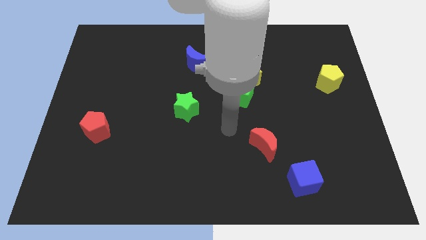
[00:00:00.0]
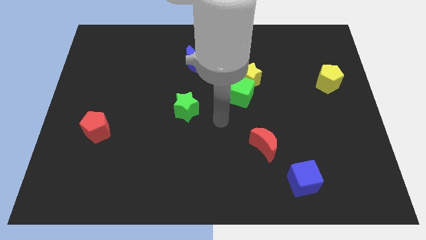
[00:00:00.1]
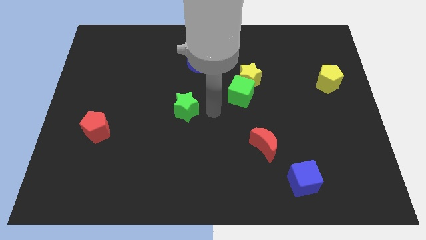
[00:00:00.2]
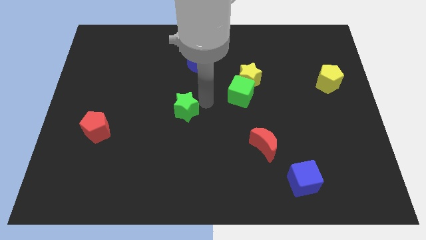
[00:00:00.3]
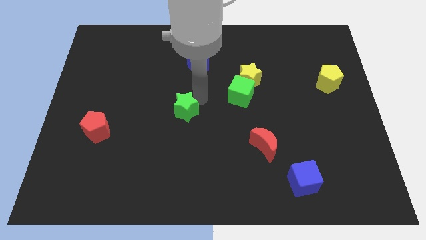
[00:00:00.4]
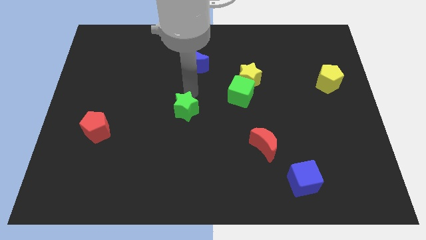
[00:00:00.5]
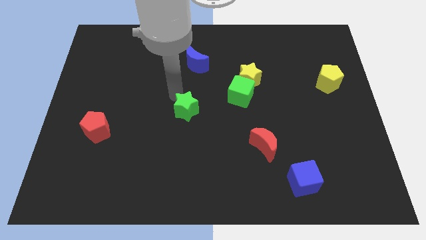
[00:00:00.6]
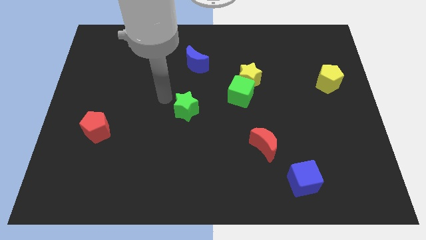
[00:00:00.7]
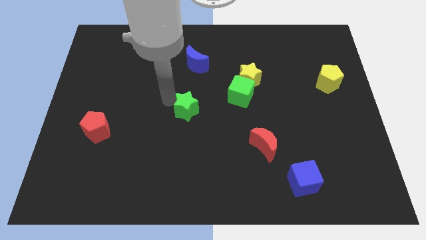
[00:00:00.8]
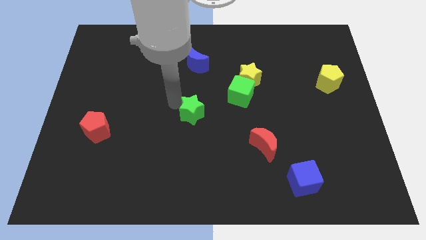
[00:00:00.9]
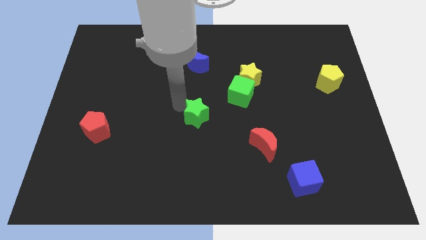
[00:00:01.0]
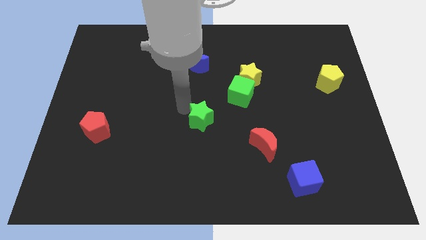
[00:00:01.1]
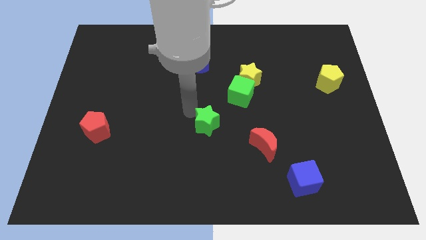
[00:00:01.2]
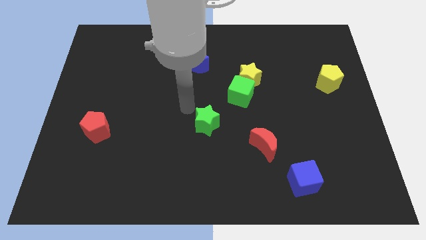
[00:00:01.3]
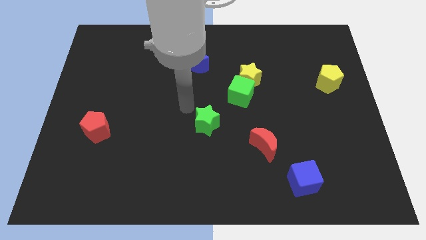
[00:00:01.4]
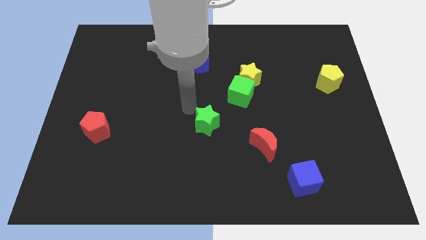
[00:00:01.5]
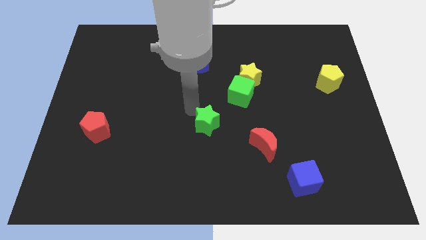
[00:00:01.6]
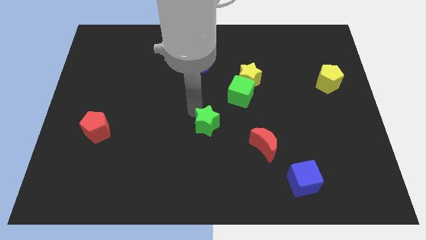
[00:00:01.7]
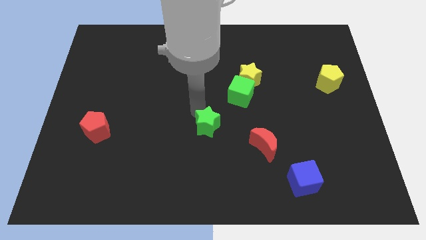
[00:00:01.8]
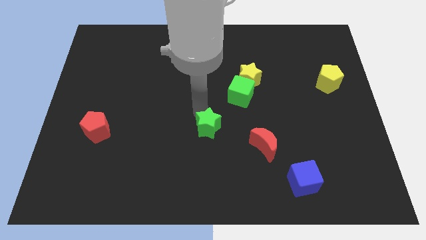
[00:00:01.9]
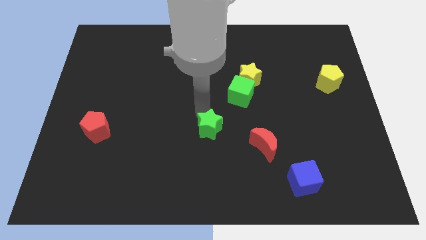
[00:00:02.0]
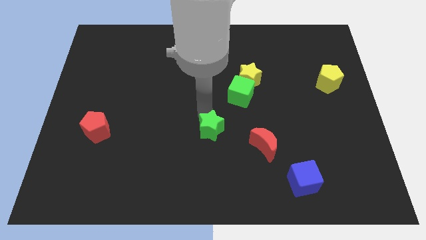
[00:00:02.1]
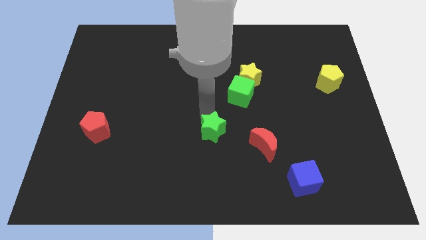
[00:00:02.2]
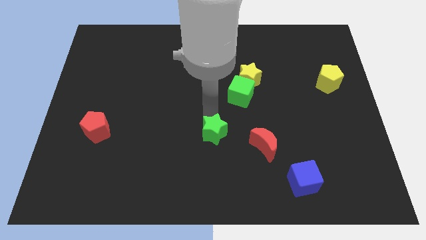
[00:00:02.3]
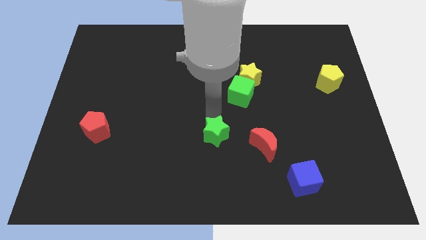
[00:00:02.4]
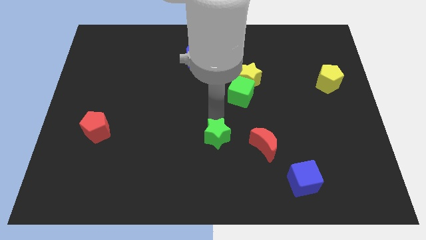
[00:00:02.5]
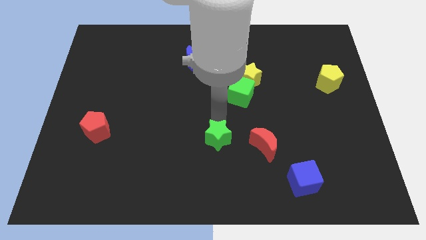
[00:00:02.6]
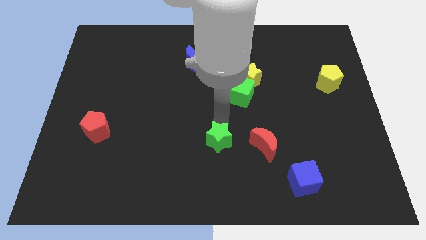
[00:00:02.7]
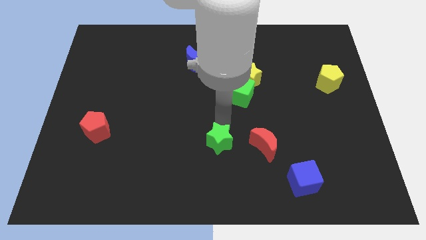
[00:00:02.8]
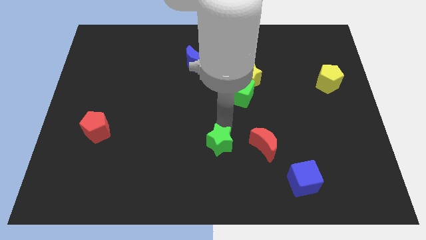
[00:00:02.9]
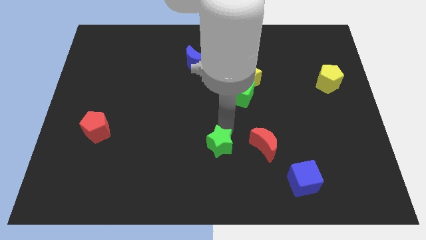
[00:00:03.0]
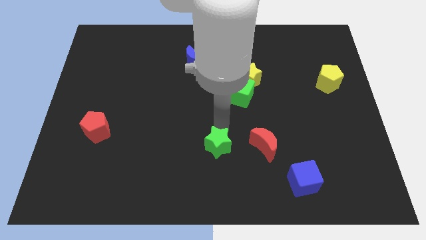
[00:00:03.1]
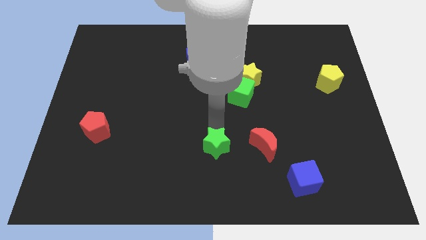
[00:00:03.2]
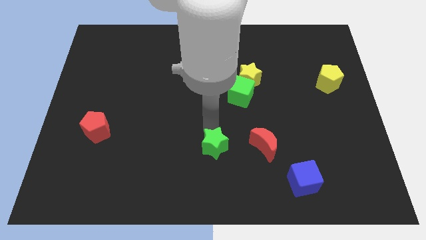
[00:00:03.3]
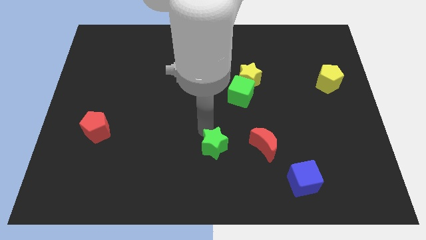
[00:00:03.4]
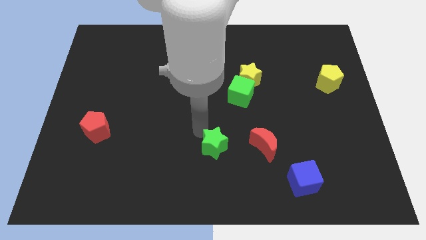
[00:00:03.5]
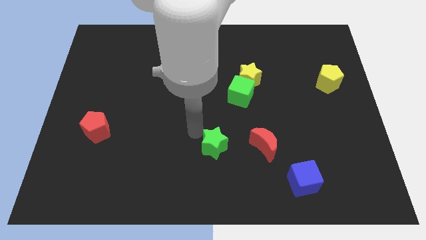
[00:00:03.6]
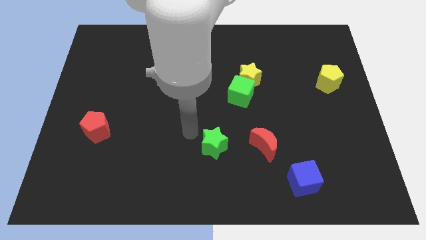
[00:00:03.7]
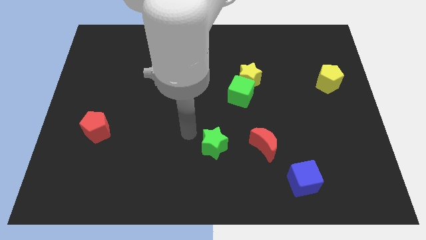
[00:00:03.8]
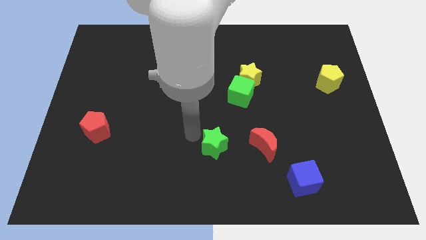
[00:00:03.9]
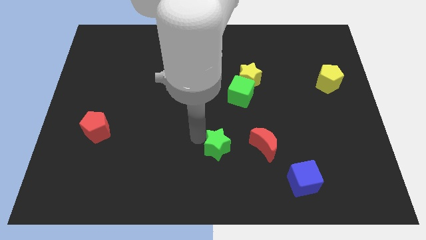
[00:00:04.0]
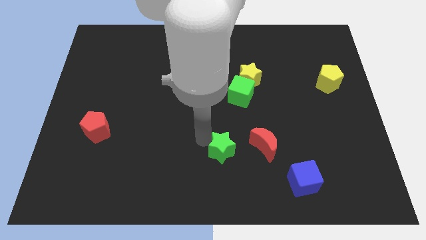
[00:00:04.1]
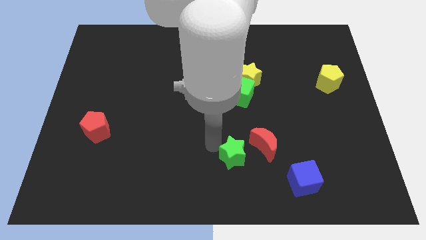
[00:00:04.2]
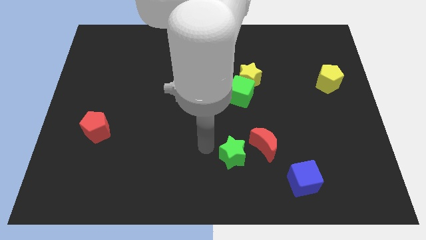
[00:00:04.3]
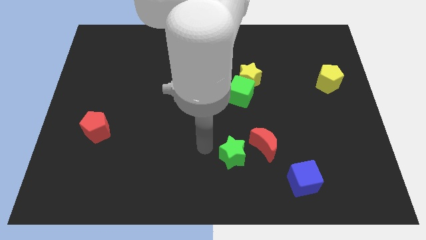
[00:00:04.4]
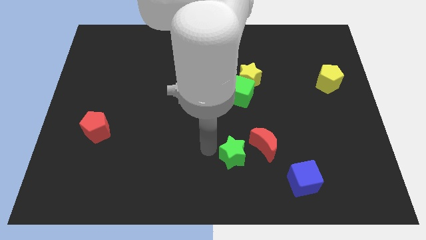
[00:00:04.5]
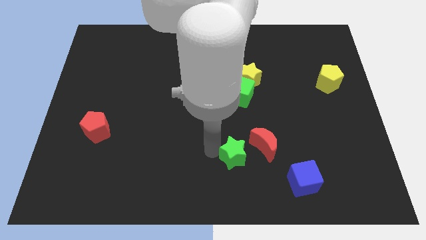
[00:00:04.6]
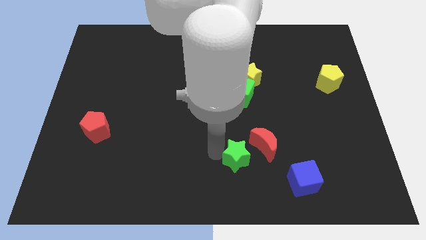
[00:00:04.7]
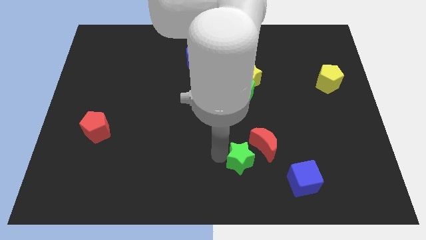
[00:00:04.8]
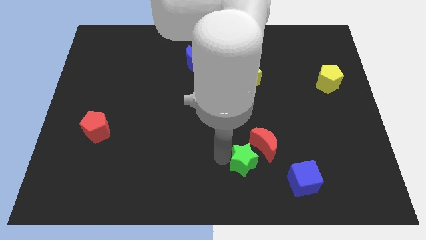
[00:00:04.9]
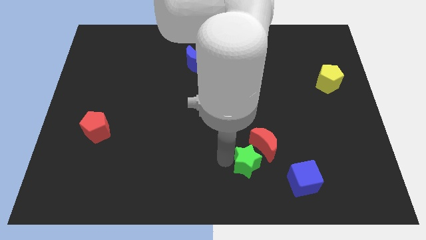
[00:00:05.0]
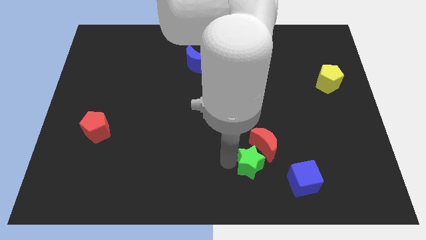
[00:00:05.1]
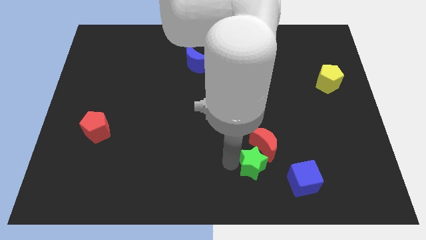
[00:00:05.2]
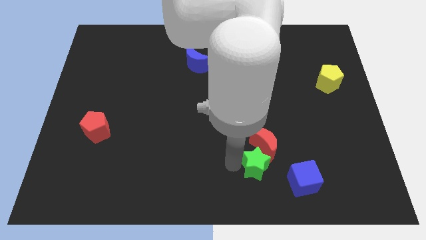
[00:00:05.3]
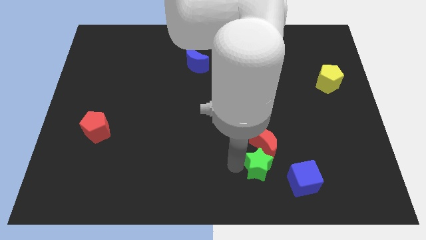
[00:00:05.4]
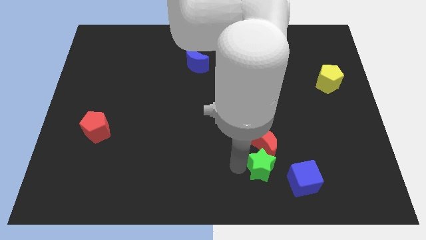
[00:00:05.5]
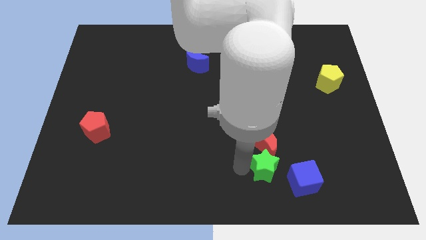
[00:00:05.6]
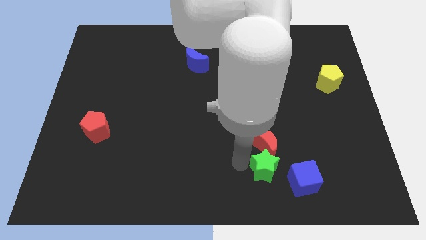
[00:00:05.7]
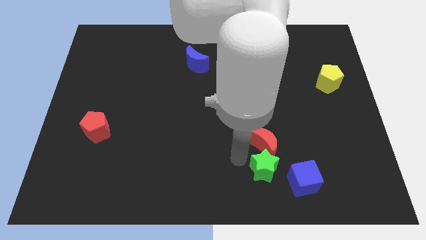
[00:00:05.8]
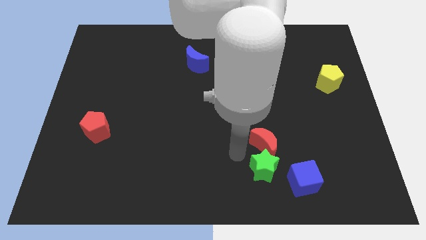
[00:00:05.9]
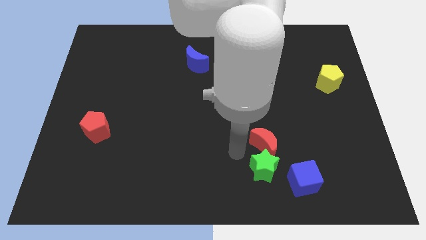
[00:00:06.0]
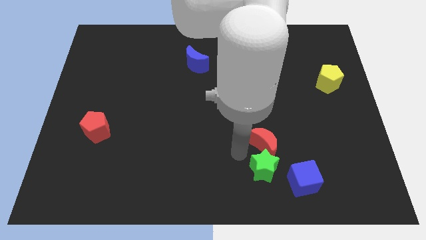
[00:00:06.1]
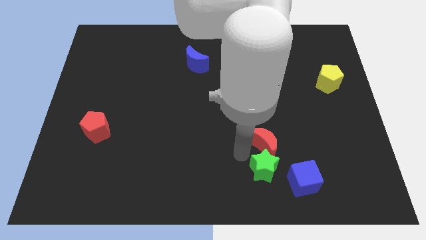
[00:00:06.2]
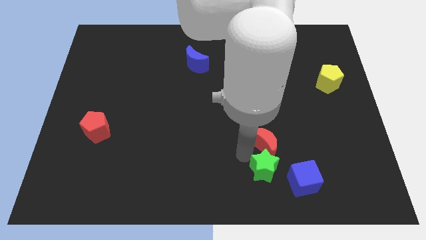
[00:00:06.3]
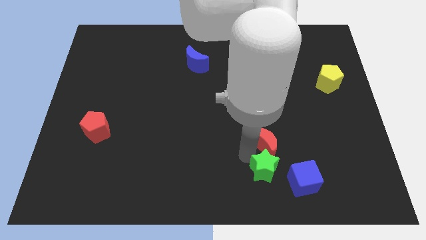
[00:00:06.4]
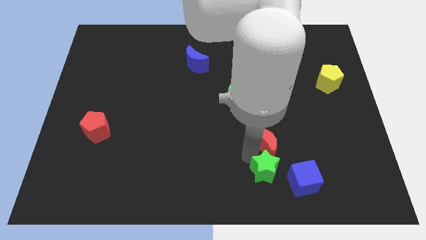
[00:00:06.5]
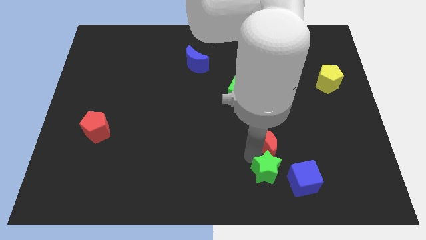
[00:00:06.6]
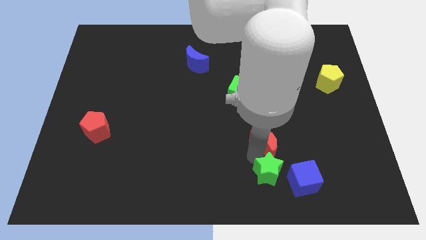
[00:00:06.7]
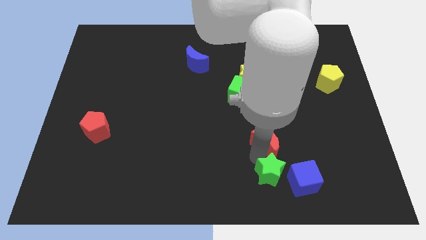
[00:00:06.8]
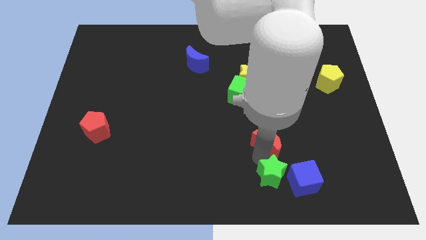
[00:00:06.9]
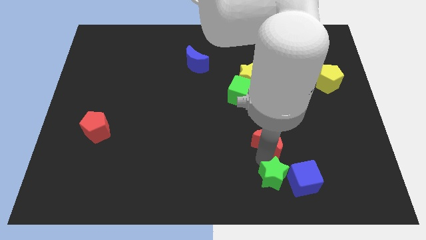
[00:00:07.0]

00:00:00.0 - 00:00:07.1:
push the green star close to the blue cube
